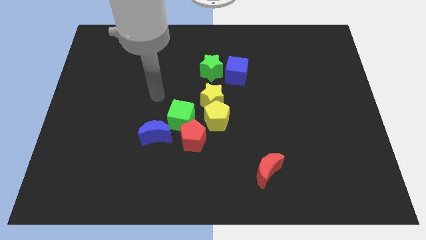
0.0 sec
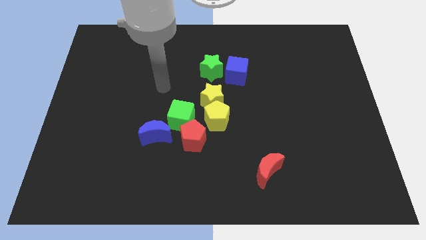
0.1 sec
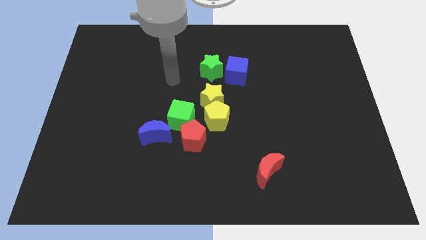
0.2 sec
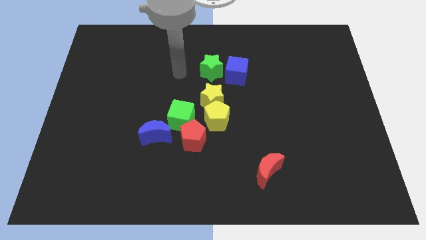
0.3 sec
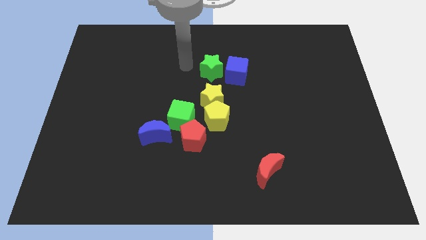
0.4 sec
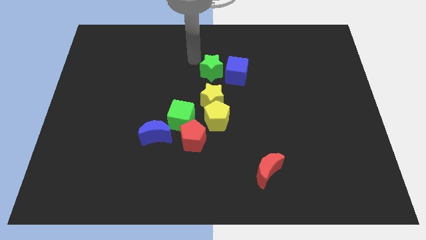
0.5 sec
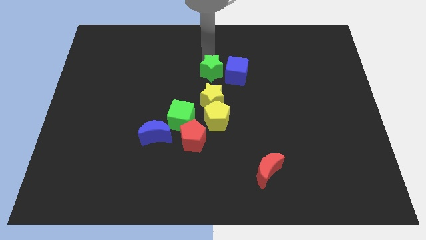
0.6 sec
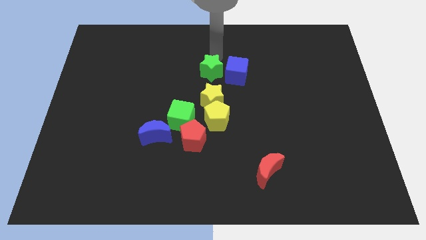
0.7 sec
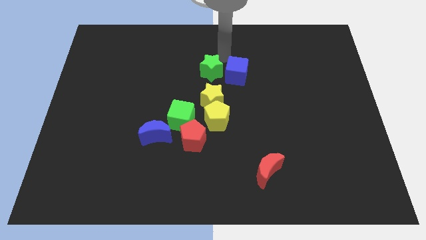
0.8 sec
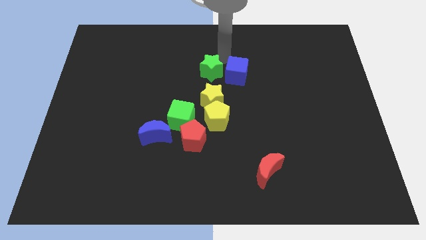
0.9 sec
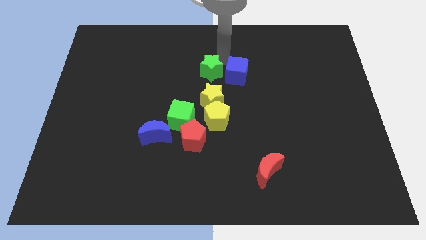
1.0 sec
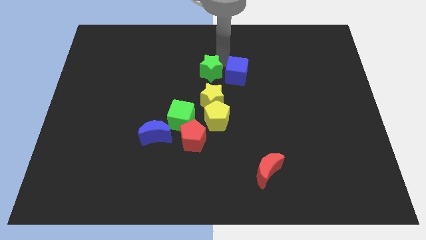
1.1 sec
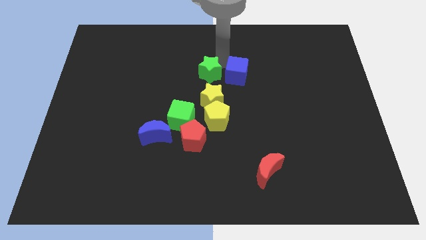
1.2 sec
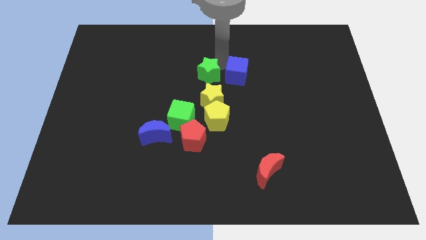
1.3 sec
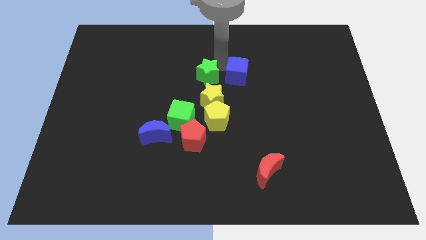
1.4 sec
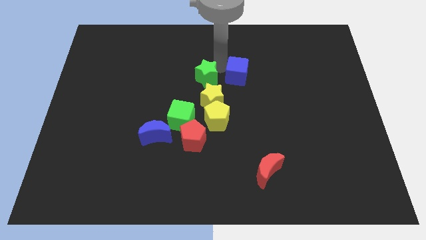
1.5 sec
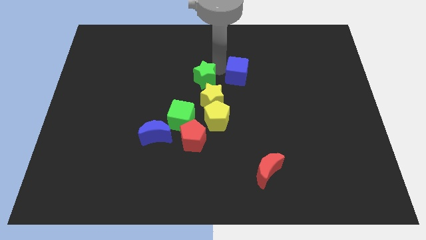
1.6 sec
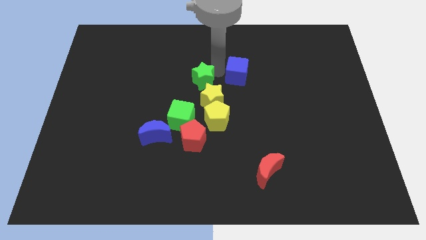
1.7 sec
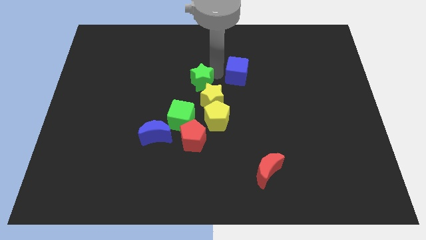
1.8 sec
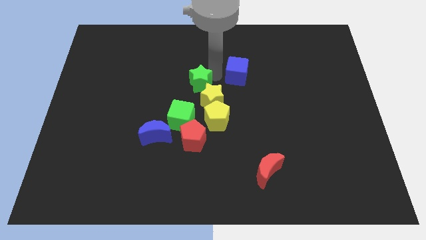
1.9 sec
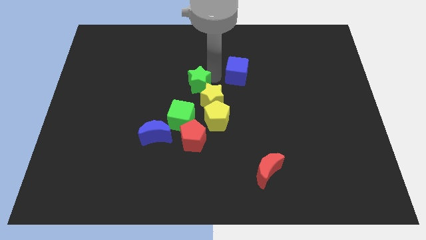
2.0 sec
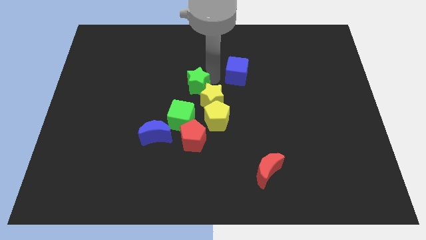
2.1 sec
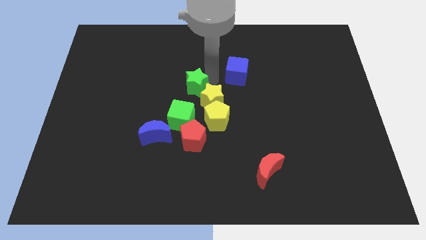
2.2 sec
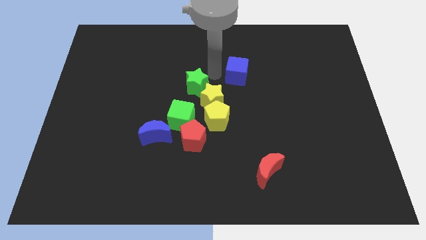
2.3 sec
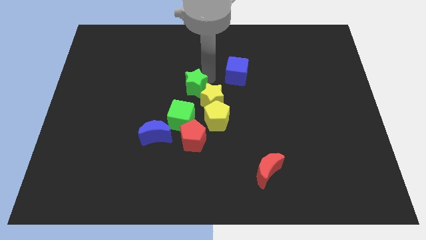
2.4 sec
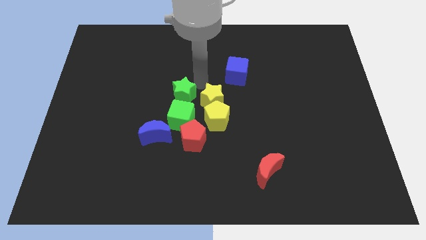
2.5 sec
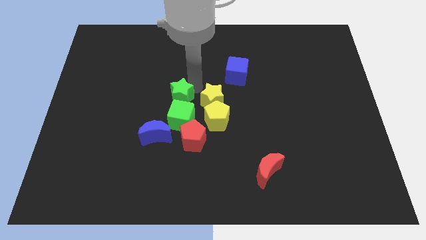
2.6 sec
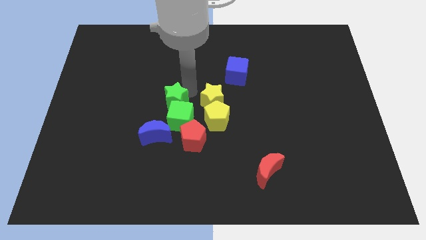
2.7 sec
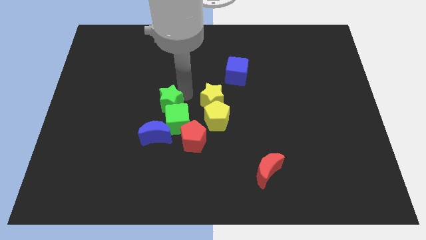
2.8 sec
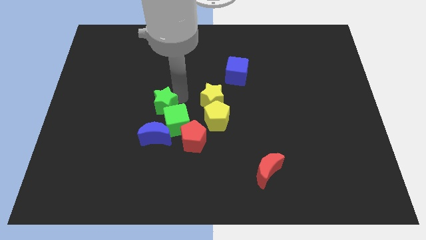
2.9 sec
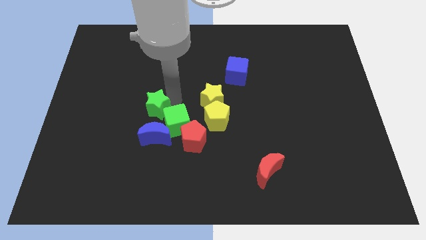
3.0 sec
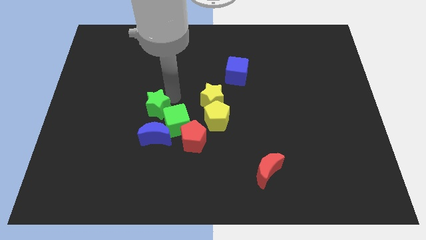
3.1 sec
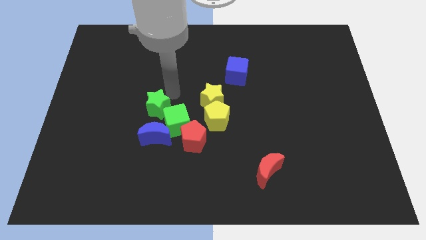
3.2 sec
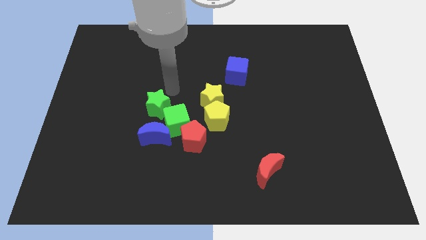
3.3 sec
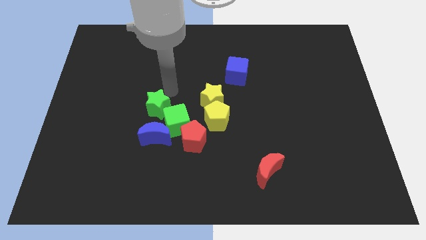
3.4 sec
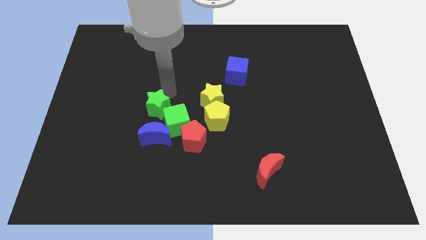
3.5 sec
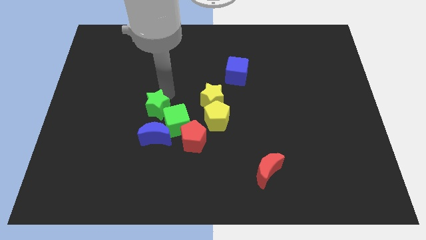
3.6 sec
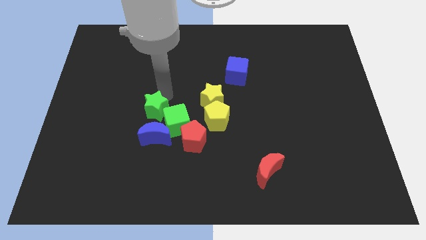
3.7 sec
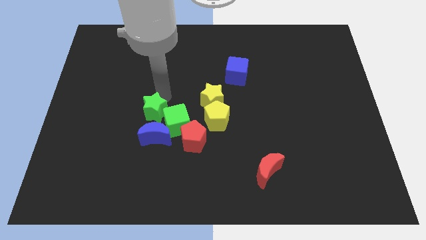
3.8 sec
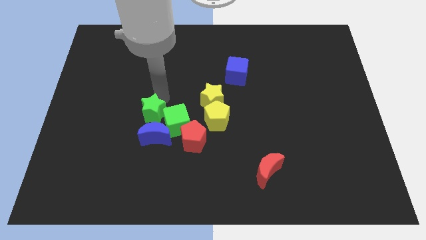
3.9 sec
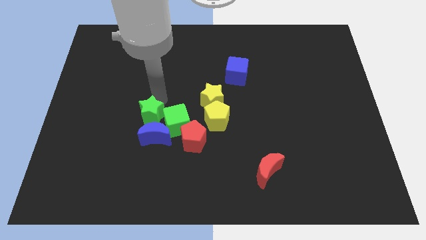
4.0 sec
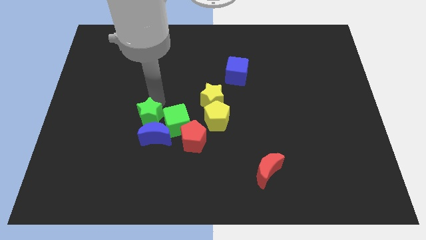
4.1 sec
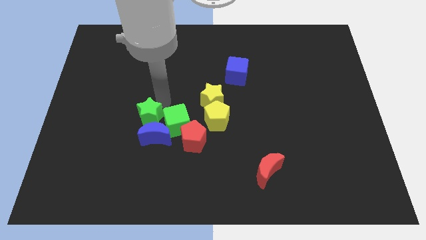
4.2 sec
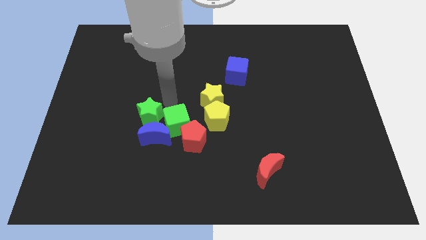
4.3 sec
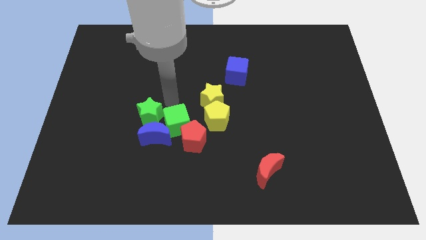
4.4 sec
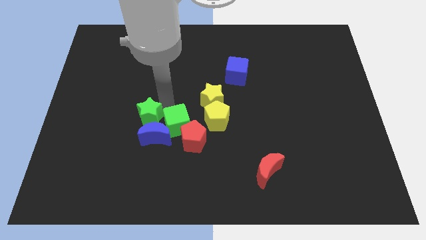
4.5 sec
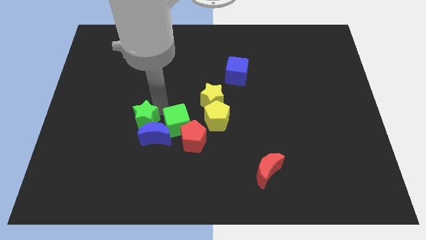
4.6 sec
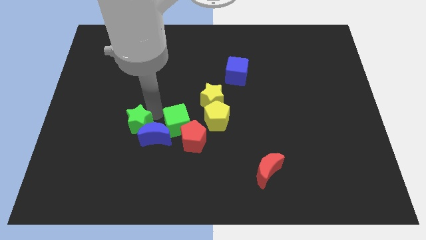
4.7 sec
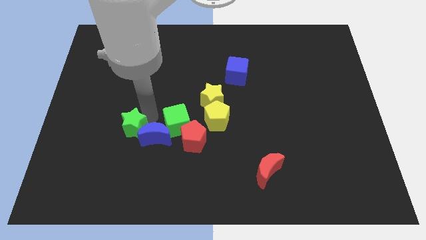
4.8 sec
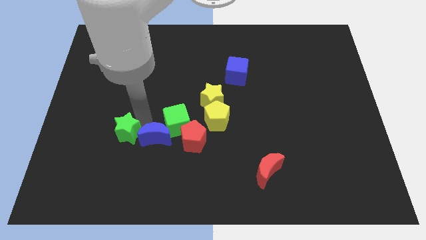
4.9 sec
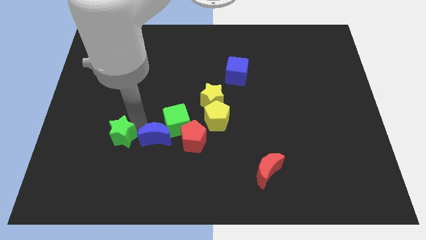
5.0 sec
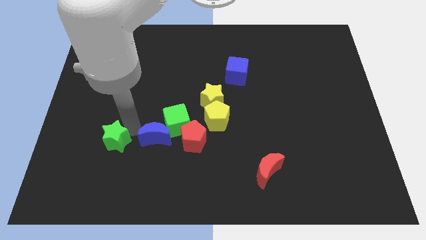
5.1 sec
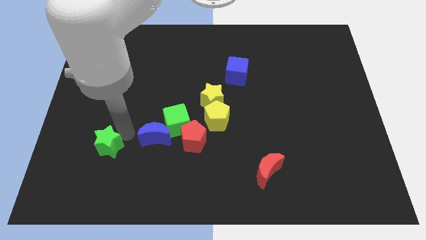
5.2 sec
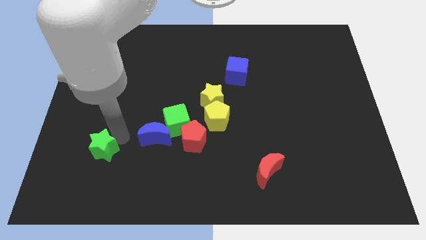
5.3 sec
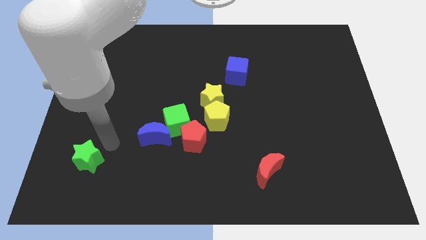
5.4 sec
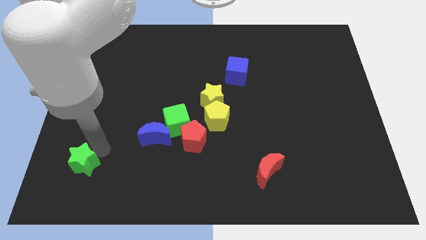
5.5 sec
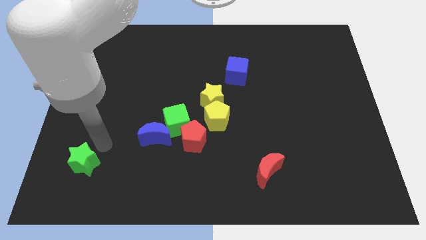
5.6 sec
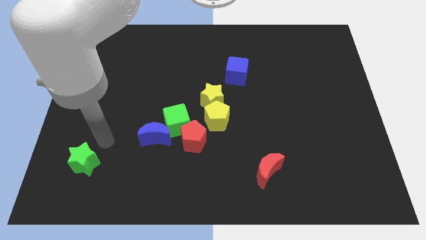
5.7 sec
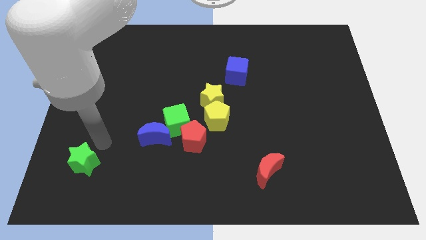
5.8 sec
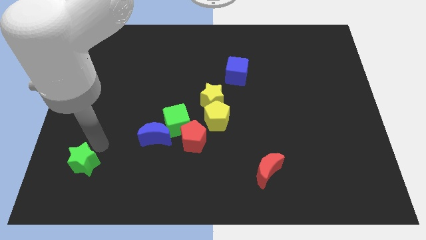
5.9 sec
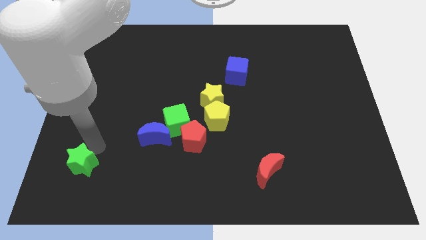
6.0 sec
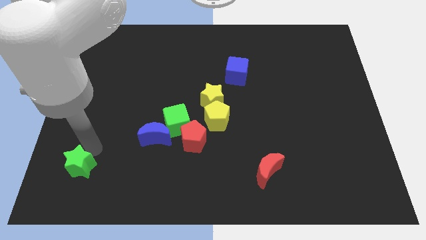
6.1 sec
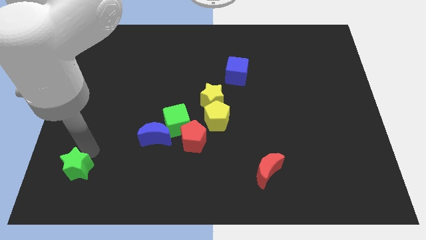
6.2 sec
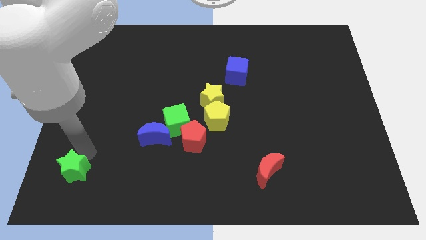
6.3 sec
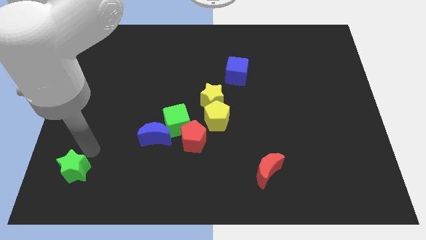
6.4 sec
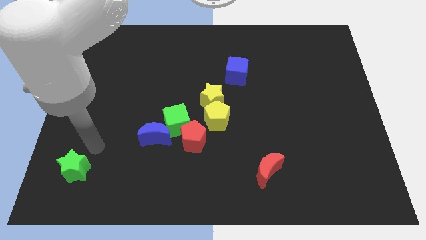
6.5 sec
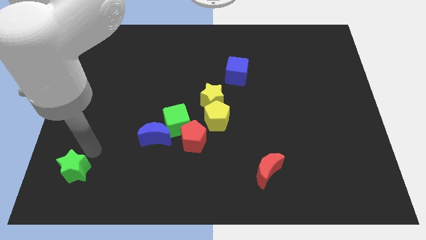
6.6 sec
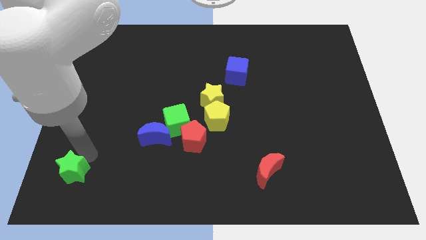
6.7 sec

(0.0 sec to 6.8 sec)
move the green star to the bottom left corner
